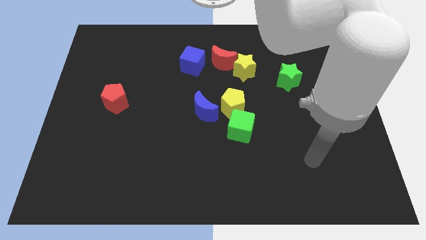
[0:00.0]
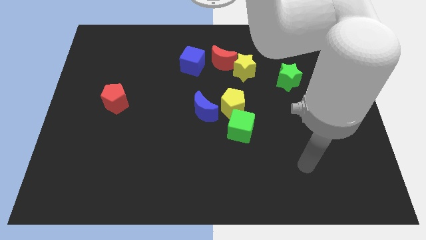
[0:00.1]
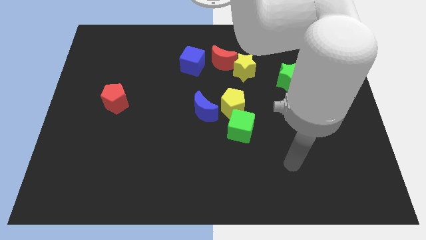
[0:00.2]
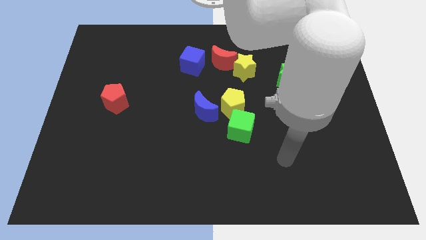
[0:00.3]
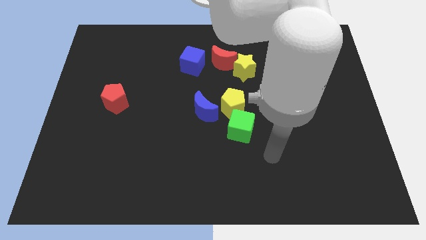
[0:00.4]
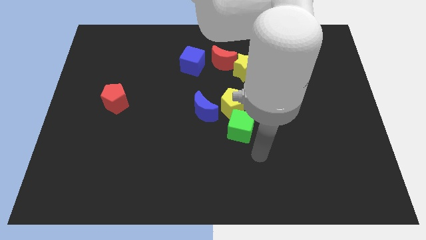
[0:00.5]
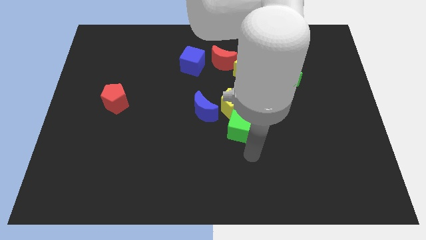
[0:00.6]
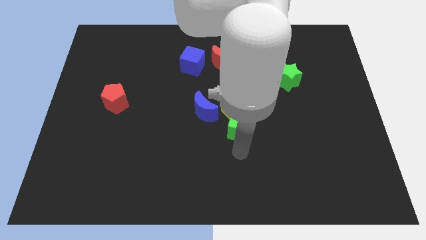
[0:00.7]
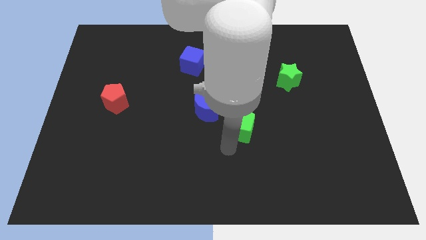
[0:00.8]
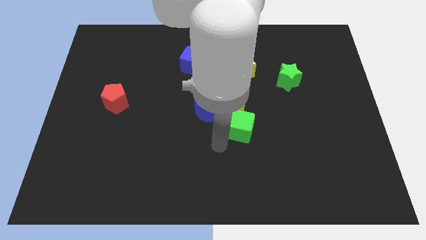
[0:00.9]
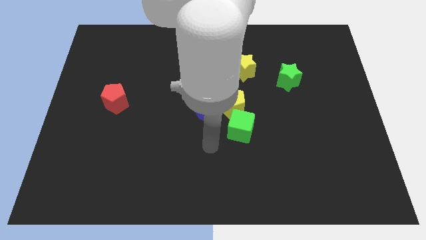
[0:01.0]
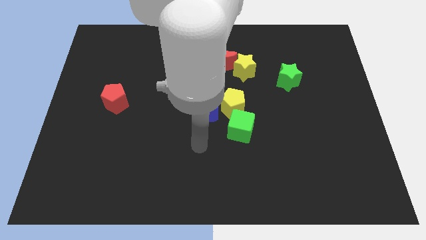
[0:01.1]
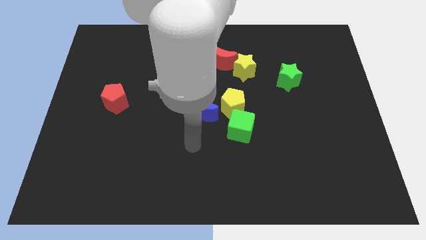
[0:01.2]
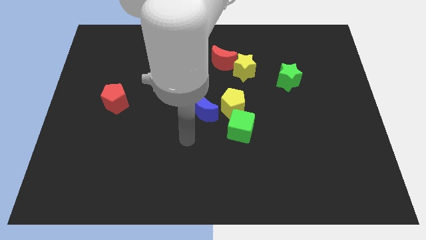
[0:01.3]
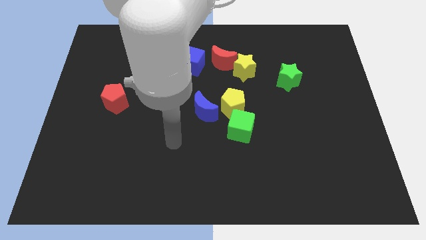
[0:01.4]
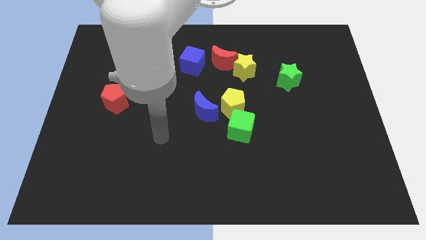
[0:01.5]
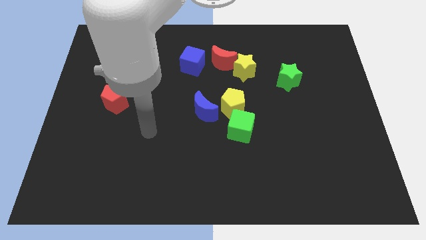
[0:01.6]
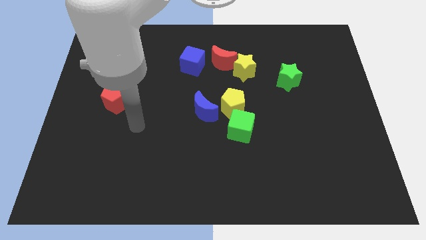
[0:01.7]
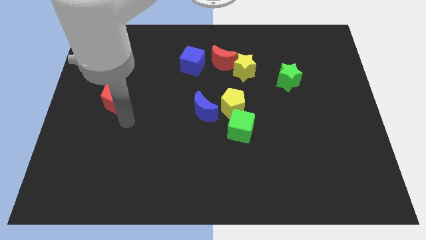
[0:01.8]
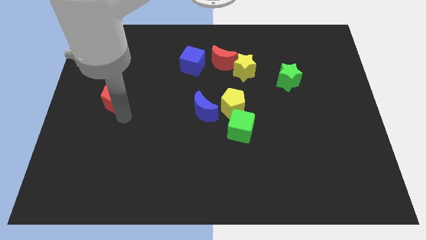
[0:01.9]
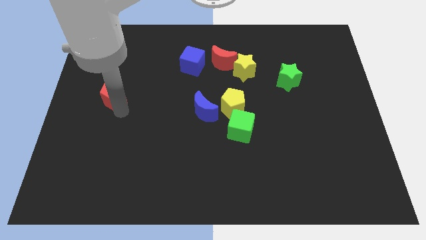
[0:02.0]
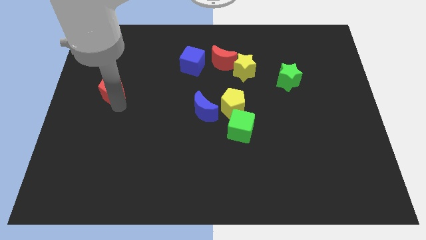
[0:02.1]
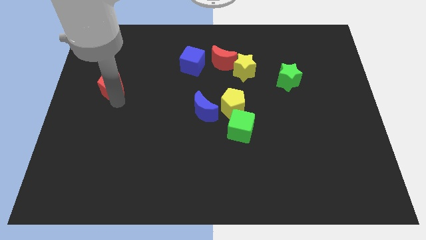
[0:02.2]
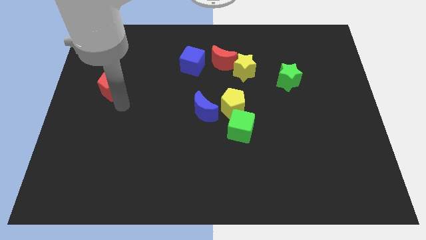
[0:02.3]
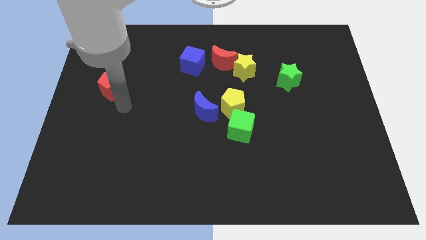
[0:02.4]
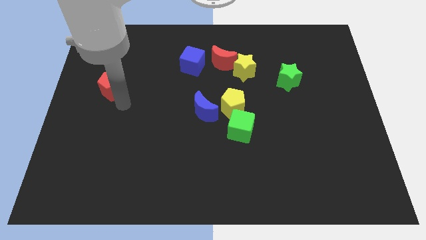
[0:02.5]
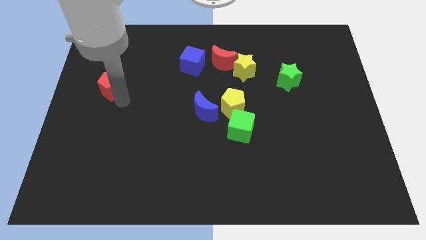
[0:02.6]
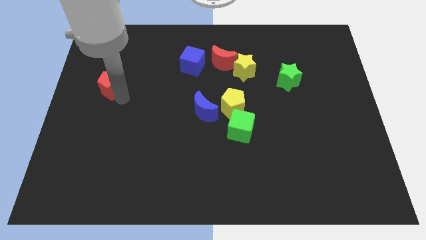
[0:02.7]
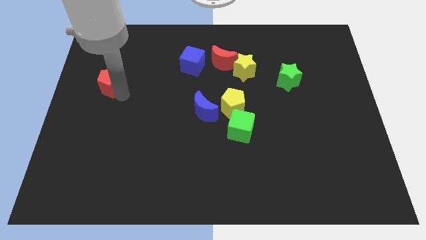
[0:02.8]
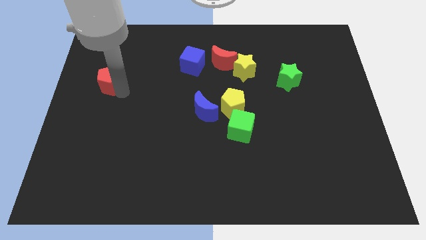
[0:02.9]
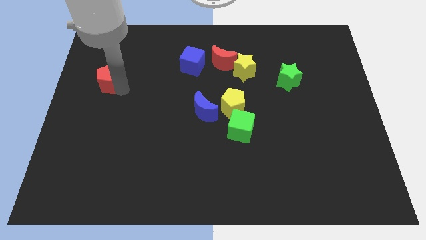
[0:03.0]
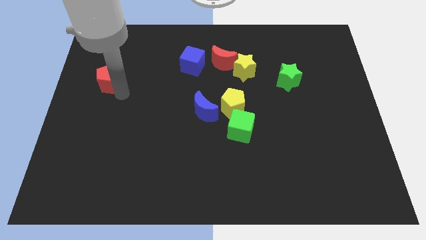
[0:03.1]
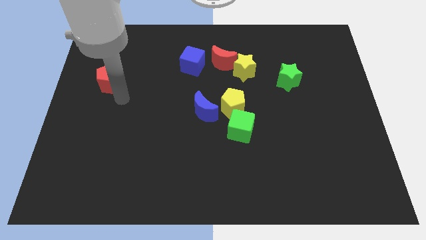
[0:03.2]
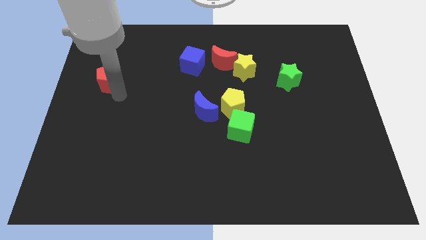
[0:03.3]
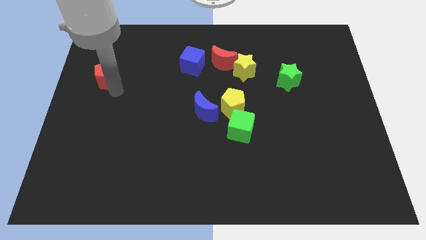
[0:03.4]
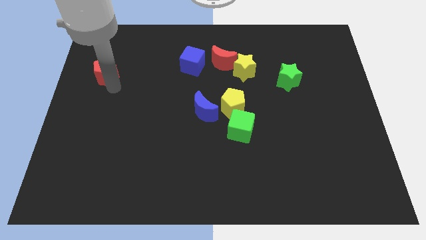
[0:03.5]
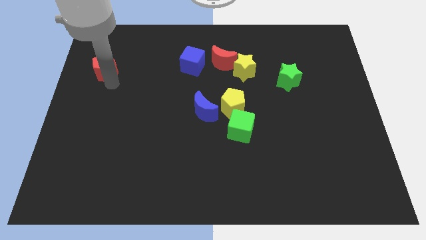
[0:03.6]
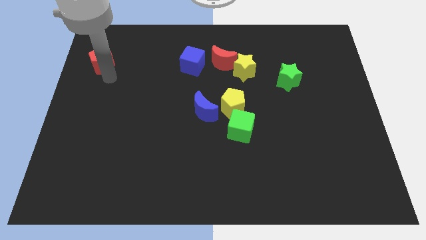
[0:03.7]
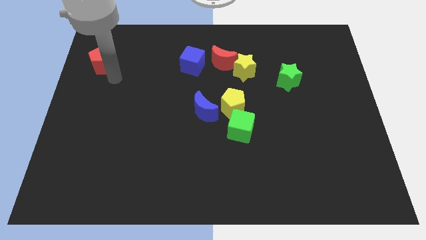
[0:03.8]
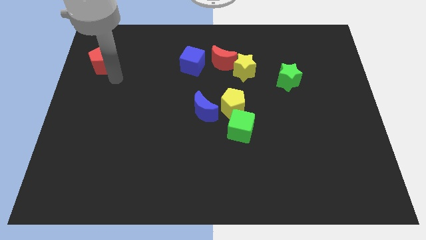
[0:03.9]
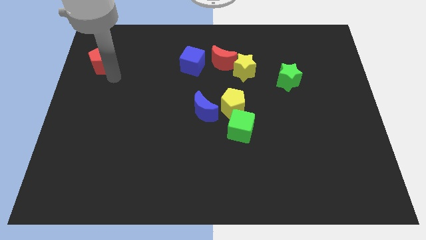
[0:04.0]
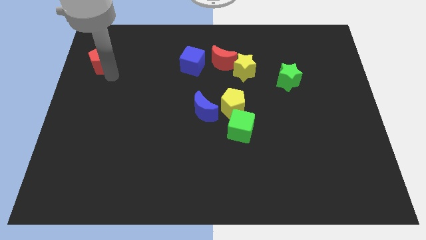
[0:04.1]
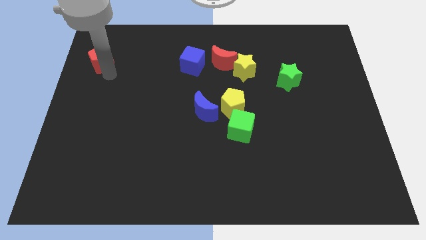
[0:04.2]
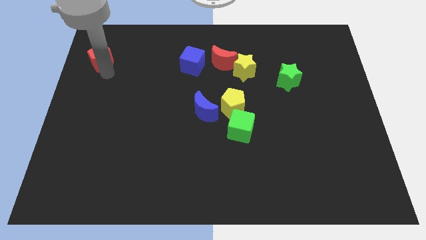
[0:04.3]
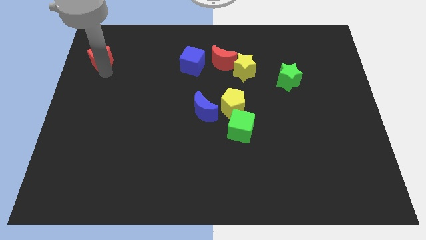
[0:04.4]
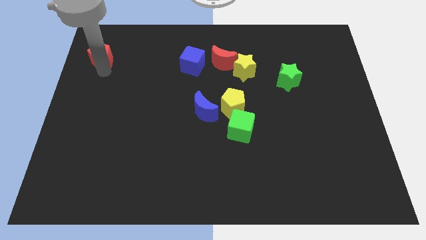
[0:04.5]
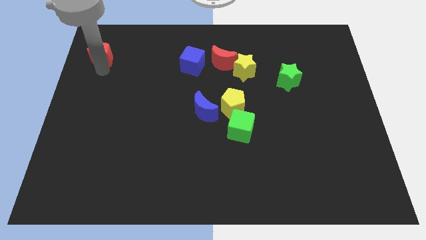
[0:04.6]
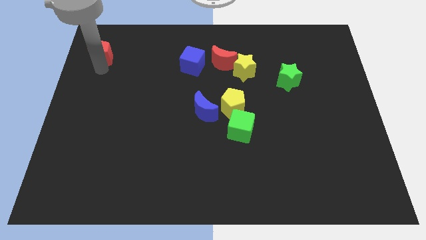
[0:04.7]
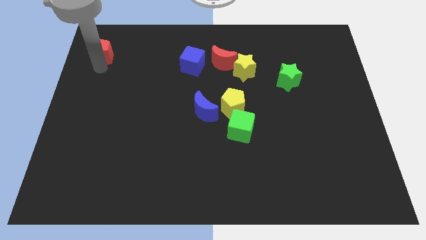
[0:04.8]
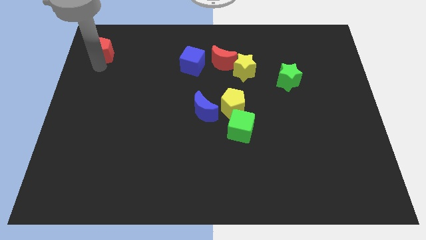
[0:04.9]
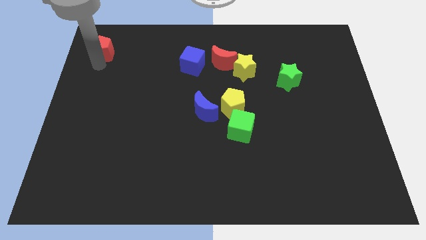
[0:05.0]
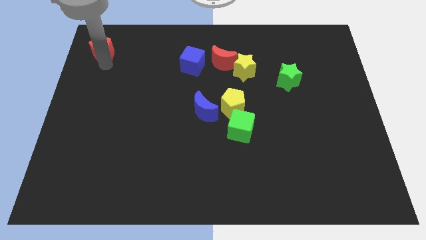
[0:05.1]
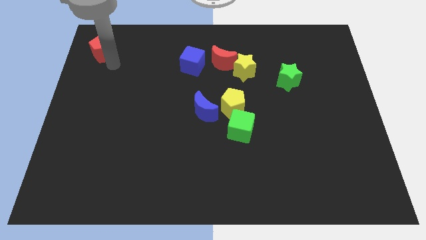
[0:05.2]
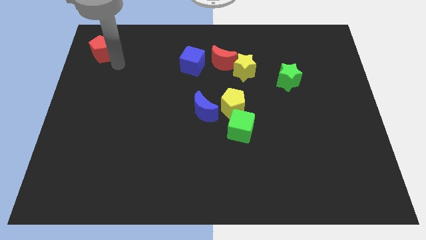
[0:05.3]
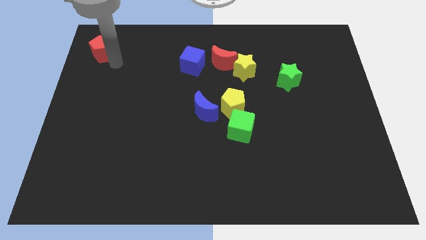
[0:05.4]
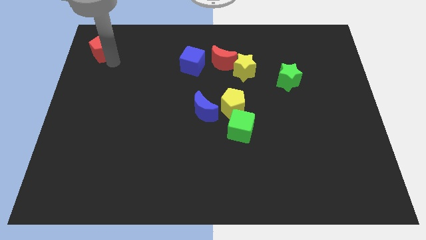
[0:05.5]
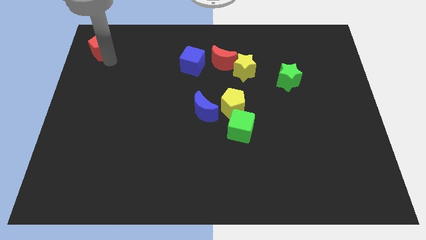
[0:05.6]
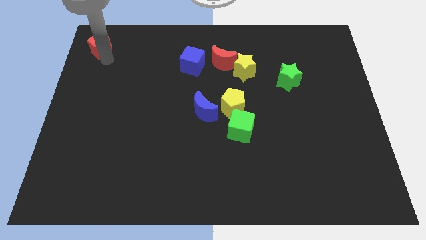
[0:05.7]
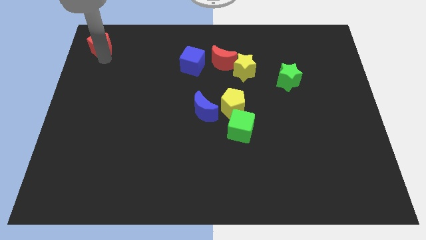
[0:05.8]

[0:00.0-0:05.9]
put the red pentagon to the upper left corner

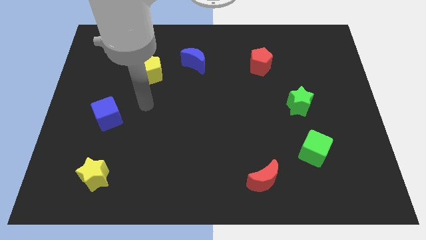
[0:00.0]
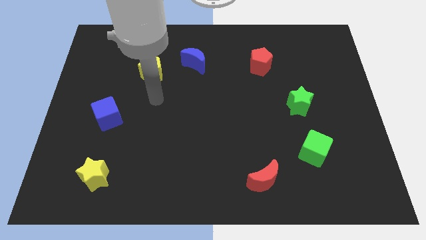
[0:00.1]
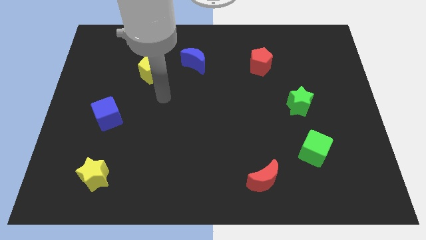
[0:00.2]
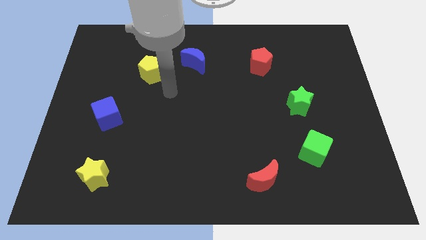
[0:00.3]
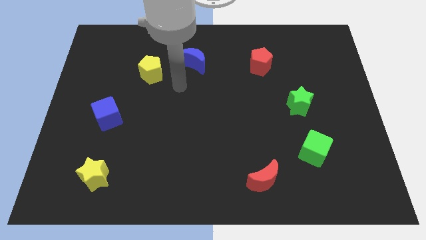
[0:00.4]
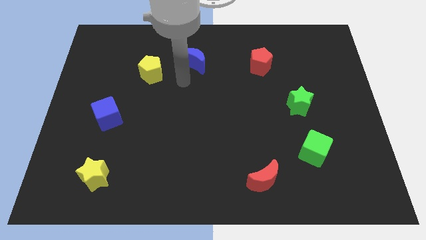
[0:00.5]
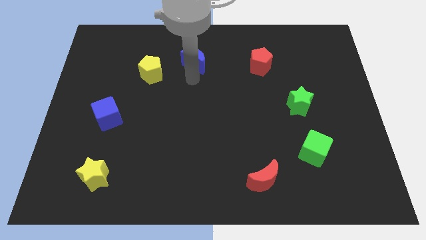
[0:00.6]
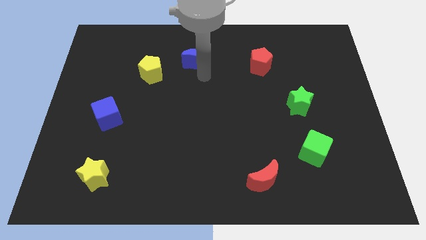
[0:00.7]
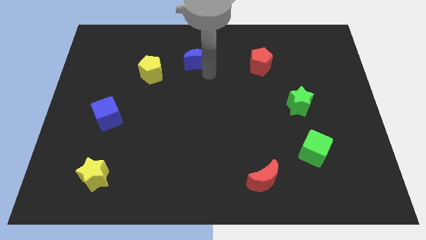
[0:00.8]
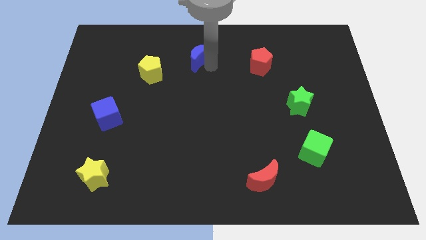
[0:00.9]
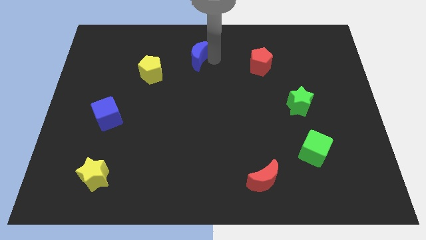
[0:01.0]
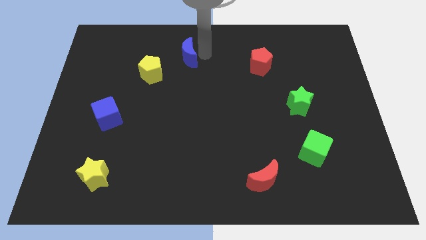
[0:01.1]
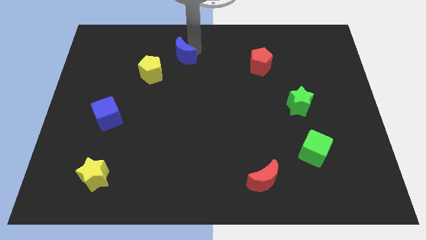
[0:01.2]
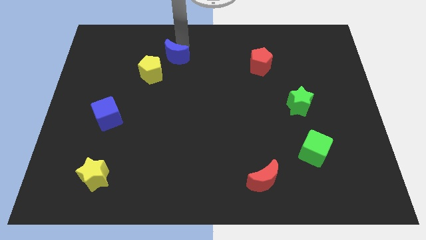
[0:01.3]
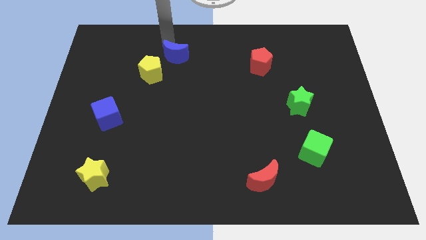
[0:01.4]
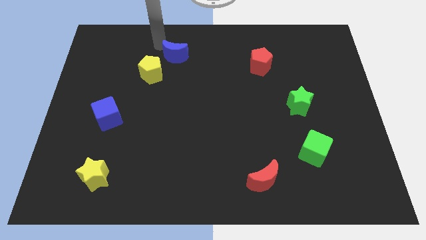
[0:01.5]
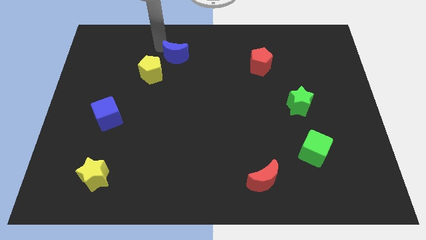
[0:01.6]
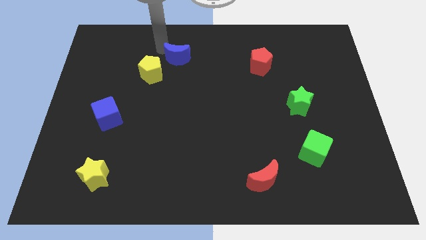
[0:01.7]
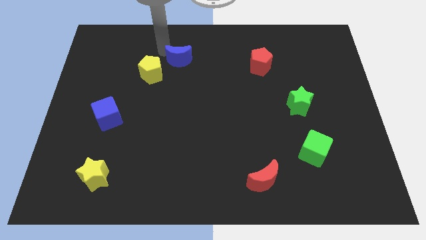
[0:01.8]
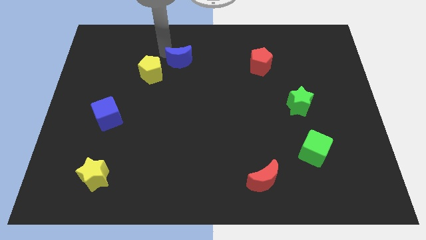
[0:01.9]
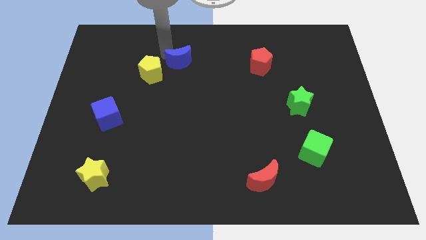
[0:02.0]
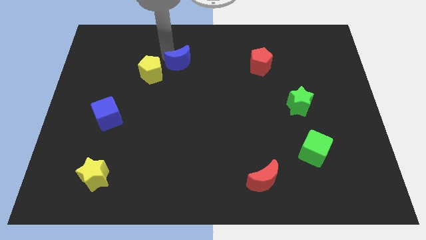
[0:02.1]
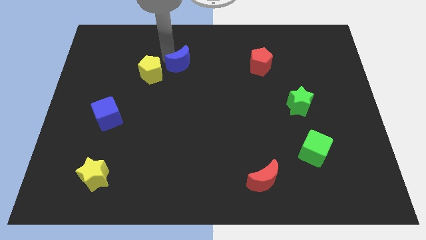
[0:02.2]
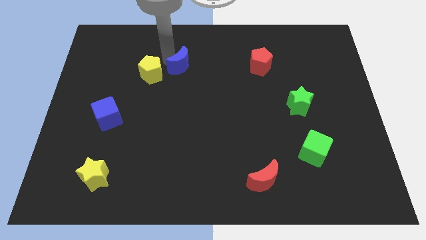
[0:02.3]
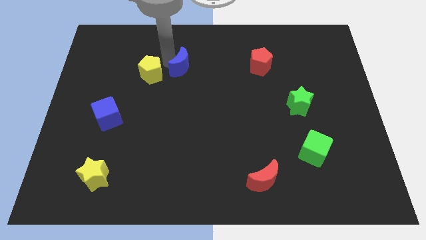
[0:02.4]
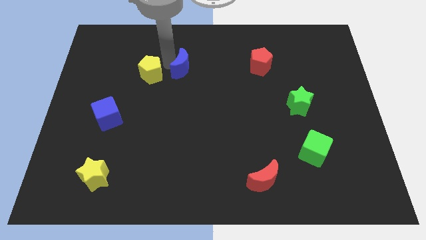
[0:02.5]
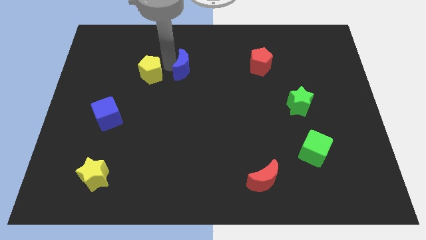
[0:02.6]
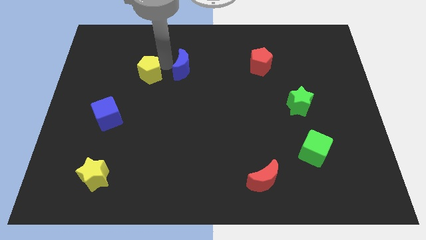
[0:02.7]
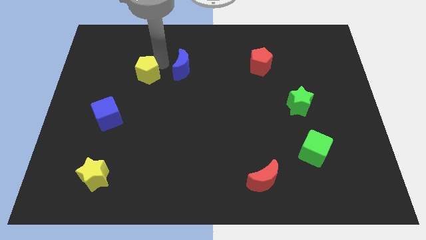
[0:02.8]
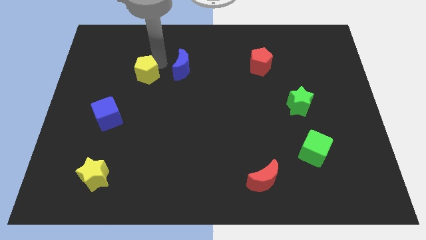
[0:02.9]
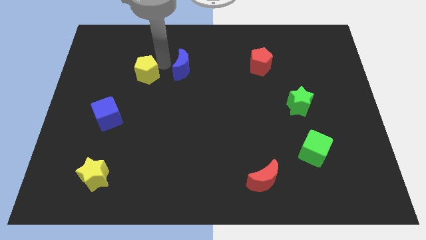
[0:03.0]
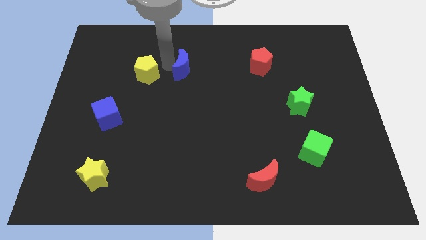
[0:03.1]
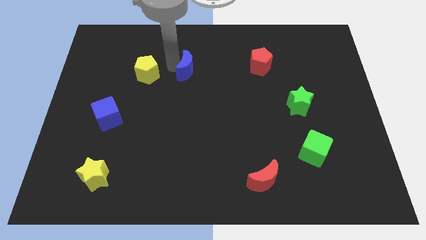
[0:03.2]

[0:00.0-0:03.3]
slide the blue moon to the center
